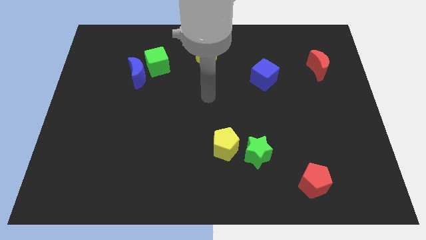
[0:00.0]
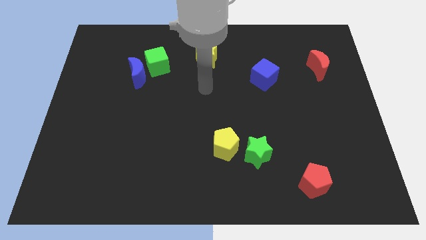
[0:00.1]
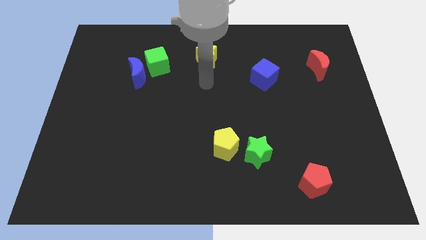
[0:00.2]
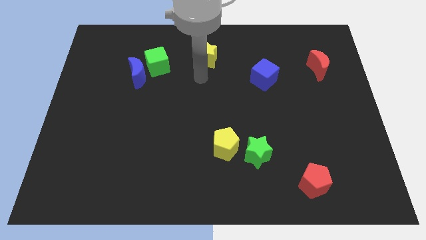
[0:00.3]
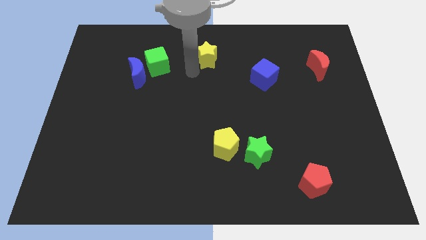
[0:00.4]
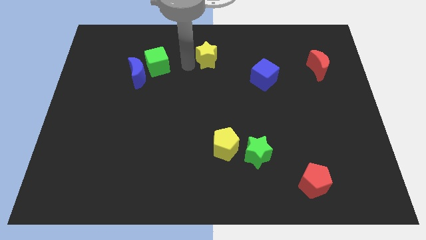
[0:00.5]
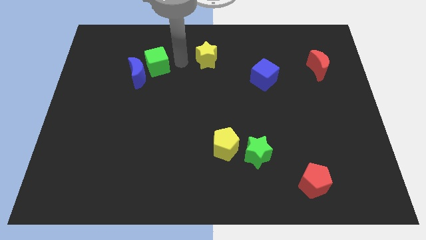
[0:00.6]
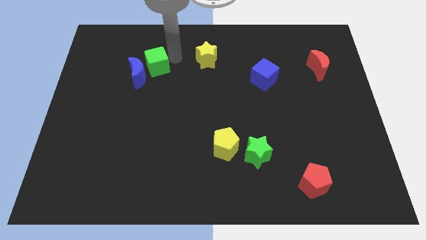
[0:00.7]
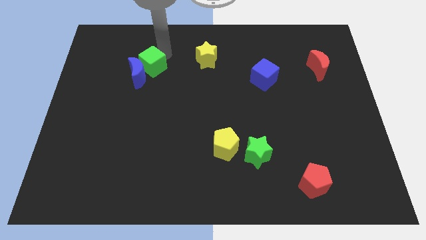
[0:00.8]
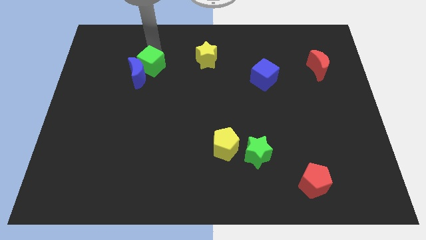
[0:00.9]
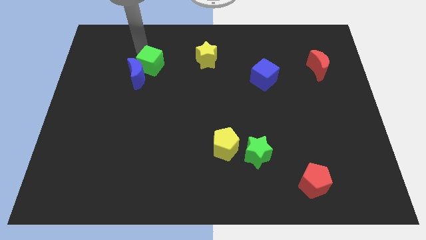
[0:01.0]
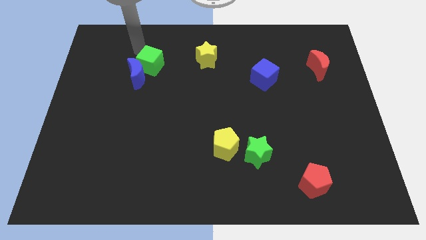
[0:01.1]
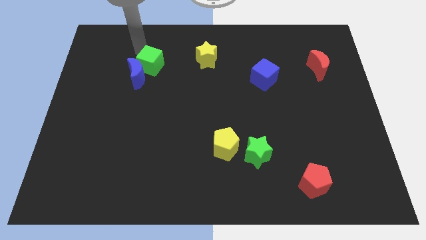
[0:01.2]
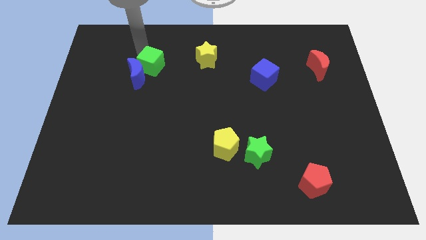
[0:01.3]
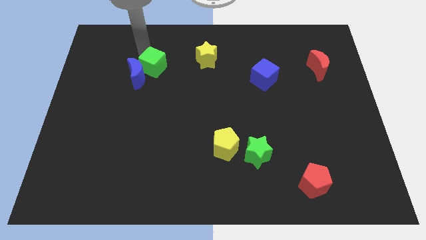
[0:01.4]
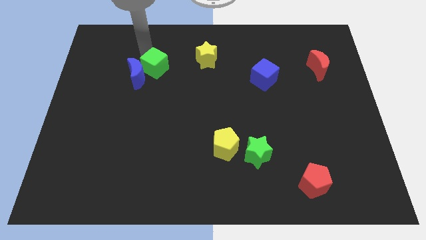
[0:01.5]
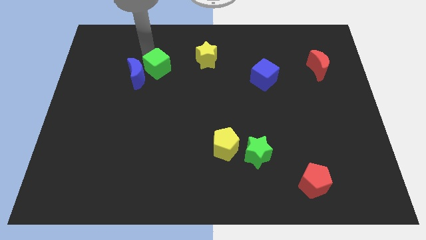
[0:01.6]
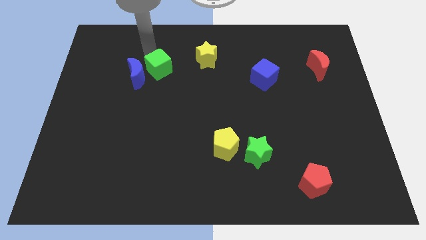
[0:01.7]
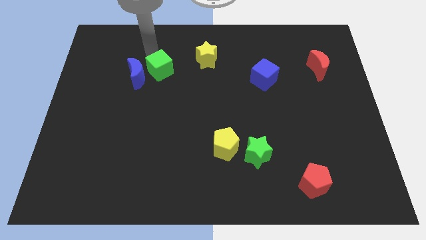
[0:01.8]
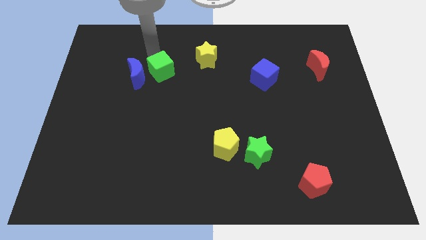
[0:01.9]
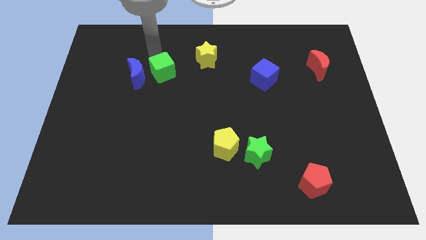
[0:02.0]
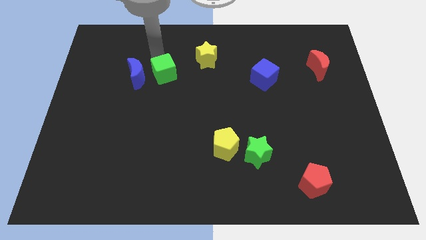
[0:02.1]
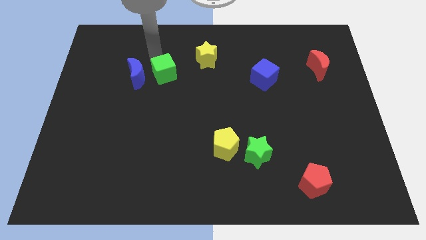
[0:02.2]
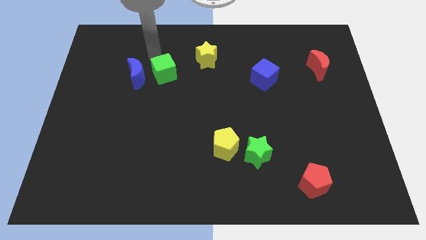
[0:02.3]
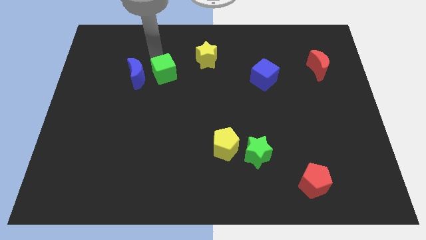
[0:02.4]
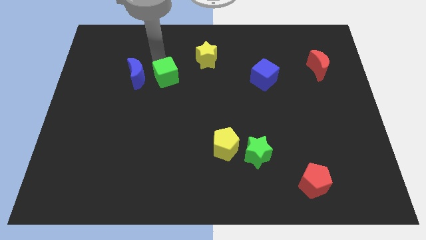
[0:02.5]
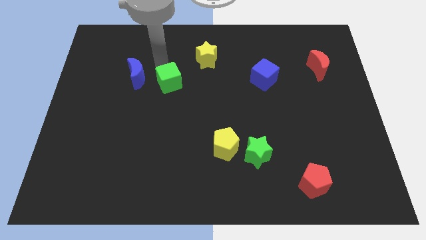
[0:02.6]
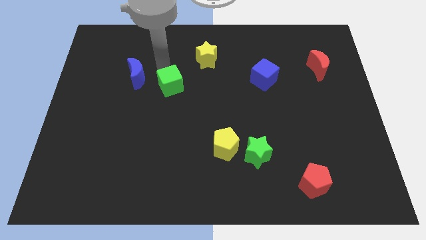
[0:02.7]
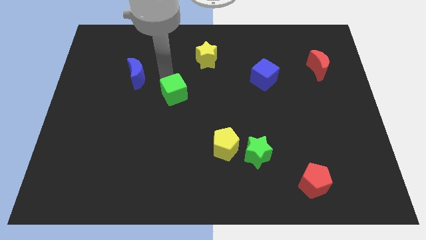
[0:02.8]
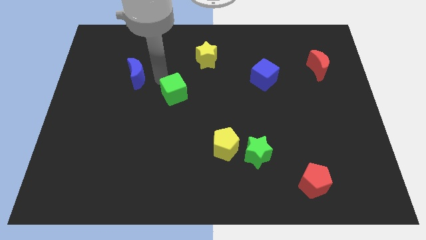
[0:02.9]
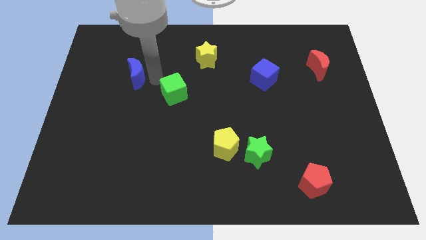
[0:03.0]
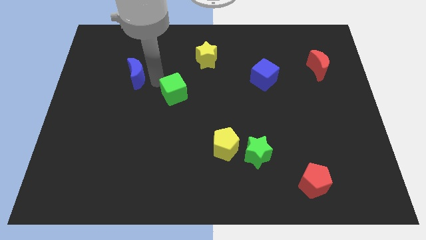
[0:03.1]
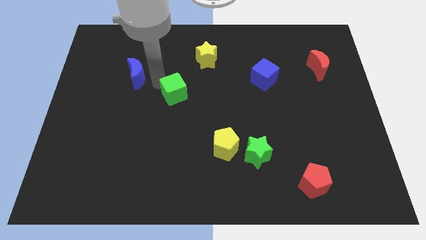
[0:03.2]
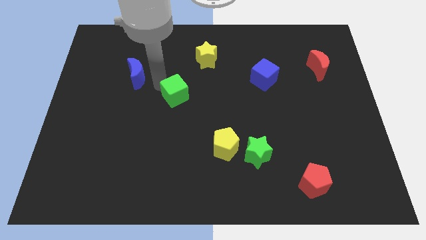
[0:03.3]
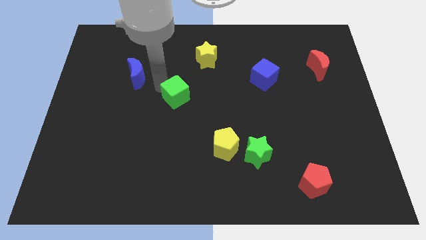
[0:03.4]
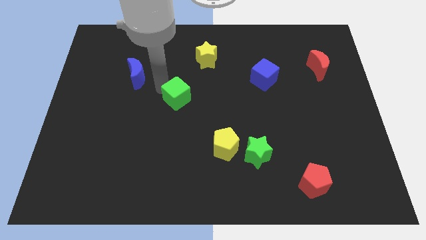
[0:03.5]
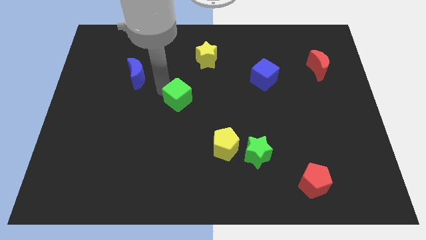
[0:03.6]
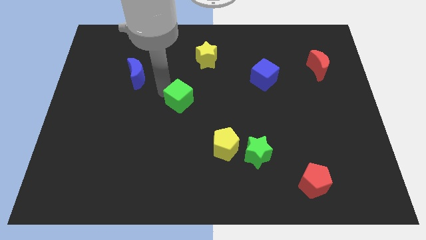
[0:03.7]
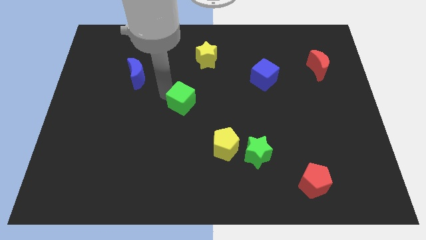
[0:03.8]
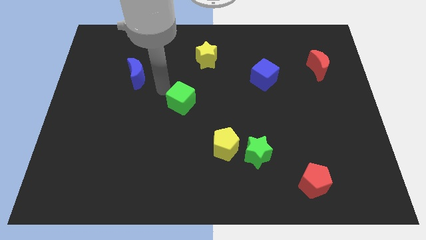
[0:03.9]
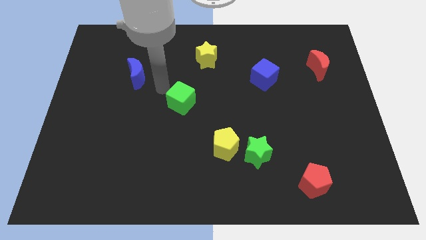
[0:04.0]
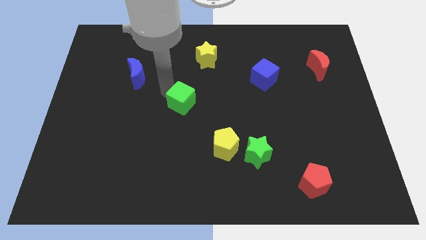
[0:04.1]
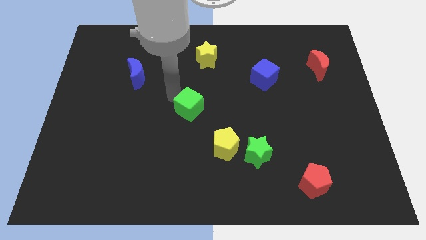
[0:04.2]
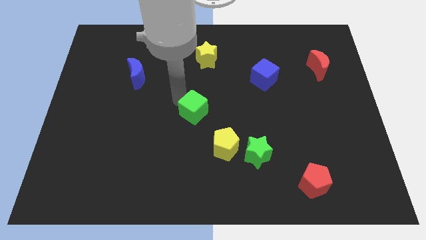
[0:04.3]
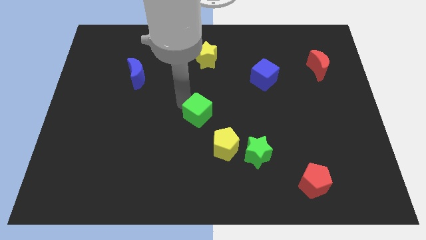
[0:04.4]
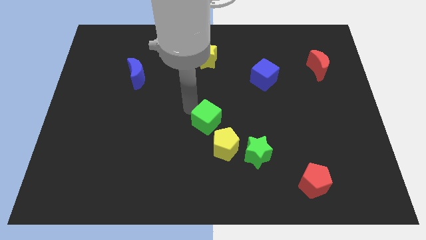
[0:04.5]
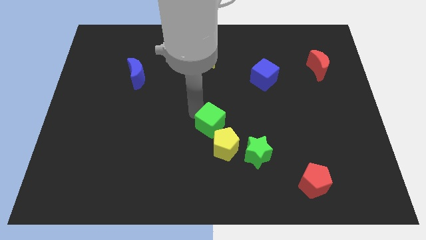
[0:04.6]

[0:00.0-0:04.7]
push the green cube to the top left of the green star

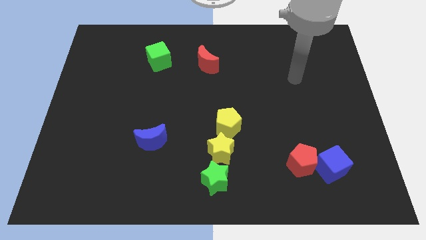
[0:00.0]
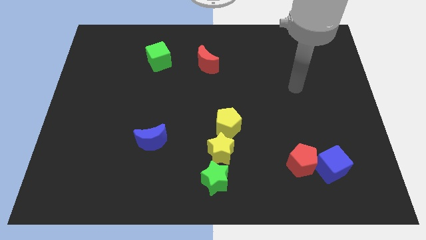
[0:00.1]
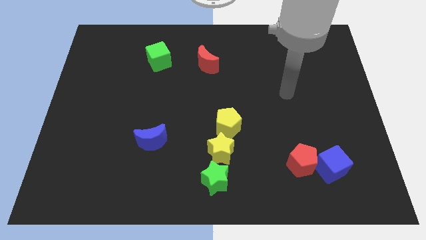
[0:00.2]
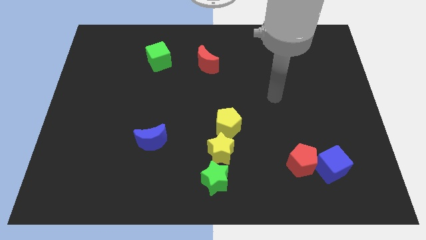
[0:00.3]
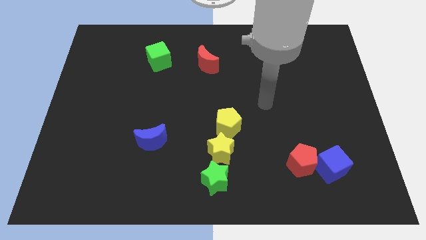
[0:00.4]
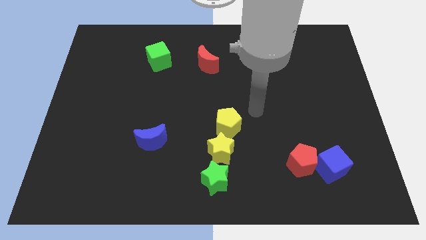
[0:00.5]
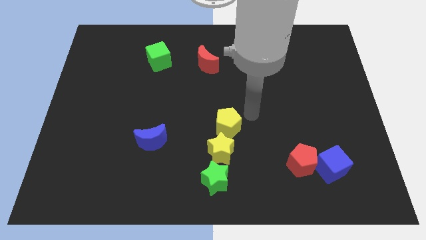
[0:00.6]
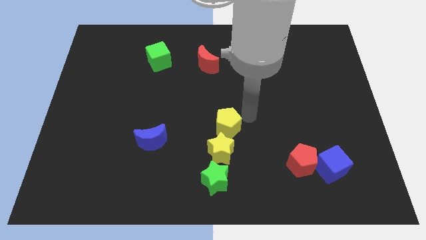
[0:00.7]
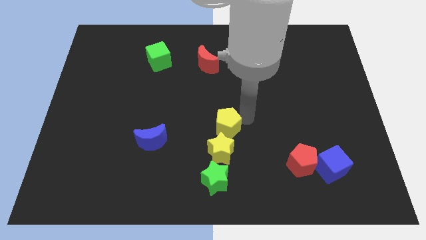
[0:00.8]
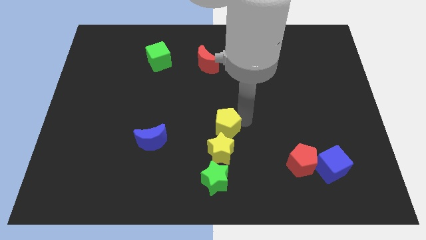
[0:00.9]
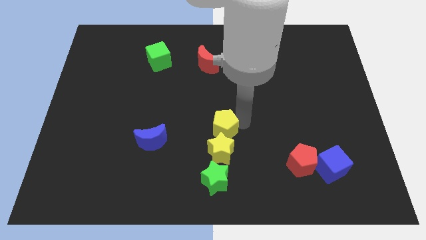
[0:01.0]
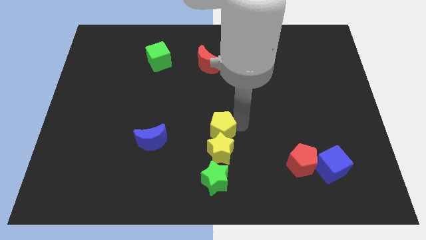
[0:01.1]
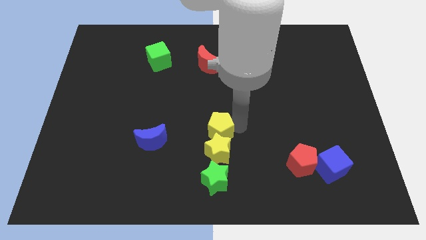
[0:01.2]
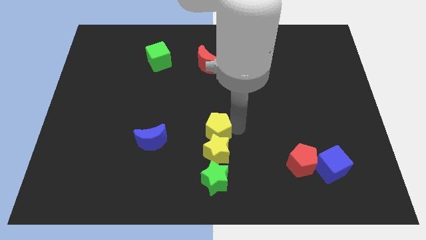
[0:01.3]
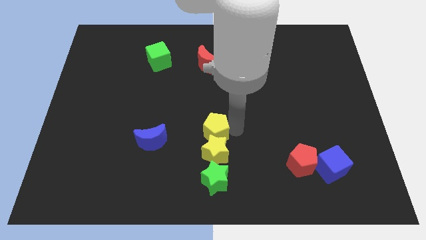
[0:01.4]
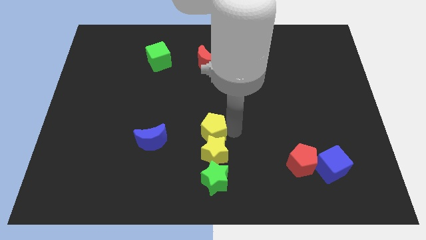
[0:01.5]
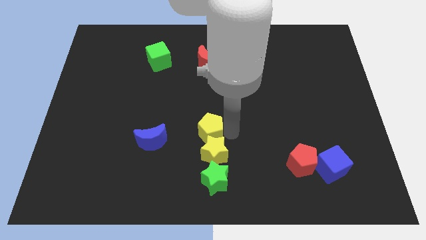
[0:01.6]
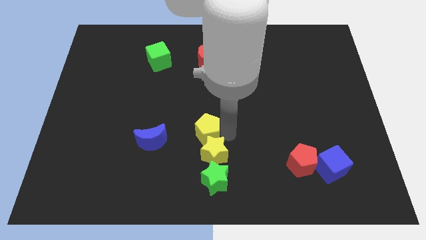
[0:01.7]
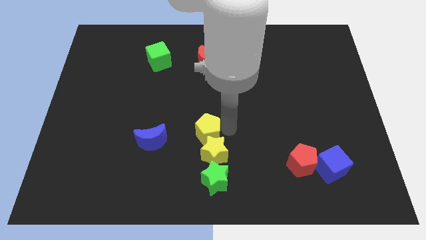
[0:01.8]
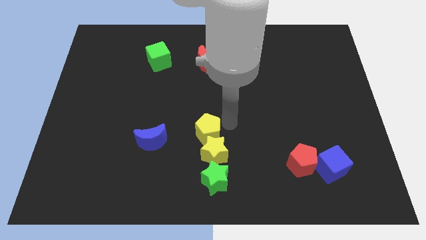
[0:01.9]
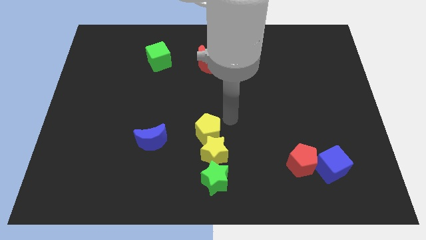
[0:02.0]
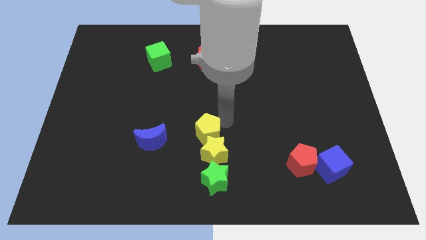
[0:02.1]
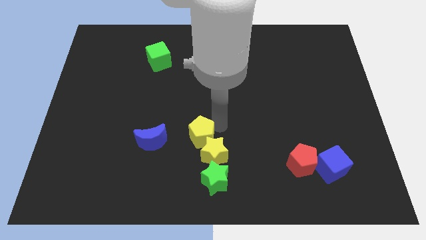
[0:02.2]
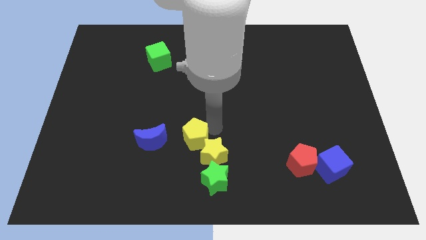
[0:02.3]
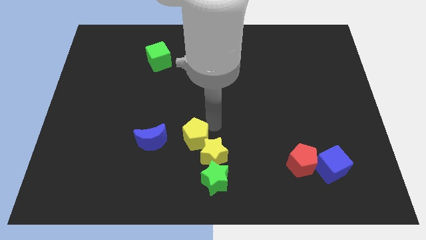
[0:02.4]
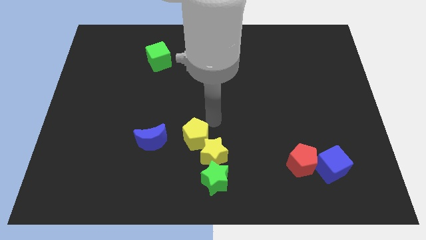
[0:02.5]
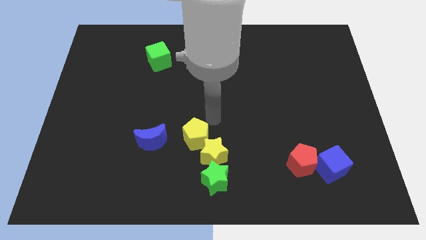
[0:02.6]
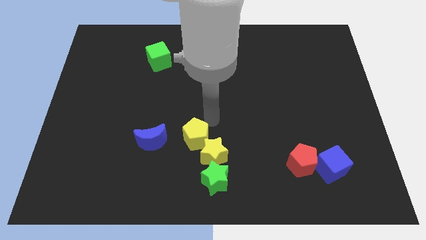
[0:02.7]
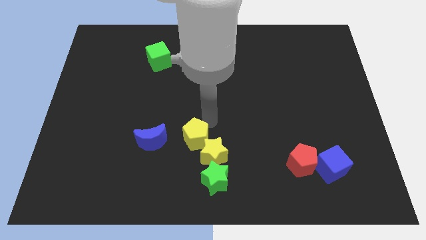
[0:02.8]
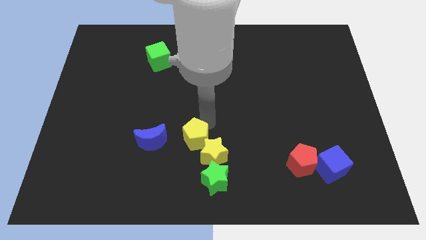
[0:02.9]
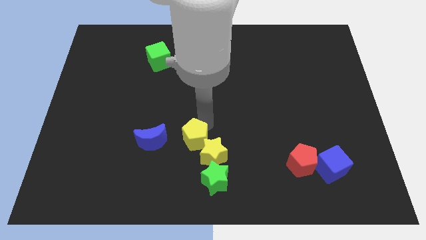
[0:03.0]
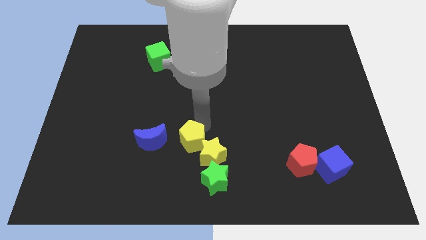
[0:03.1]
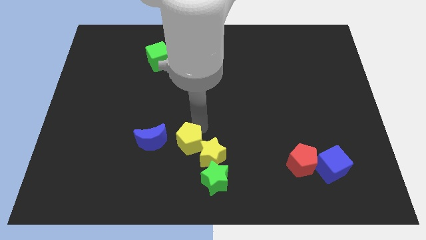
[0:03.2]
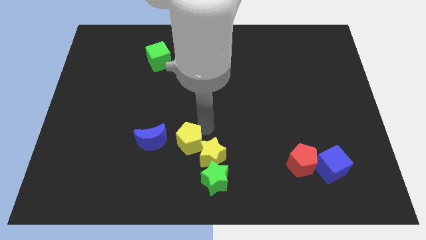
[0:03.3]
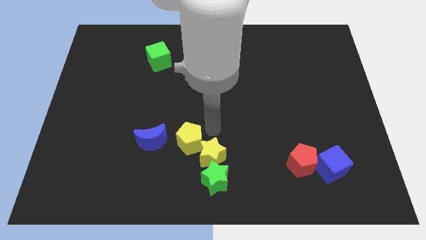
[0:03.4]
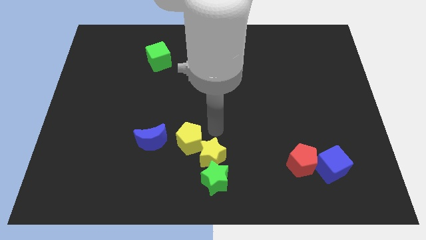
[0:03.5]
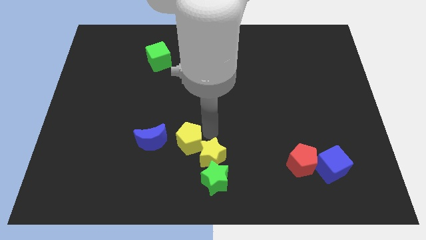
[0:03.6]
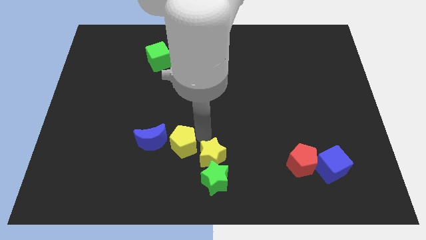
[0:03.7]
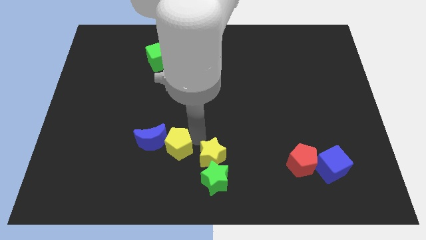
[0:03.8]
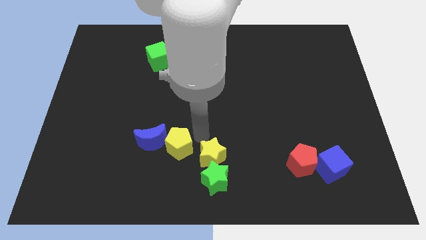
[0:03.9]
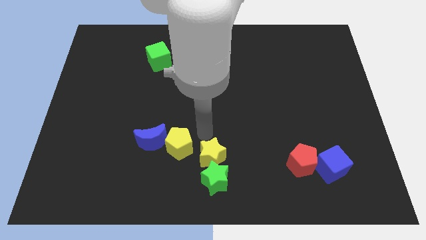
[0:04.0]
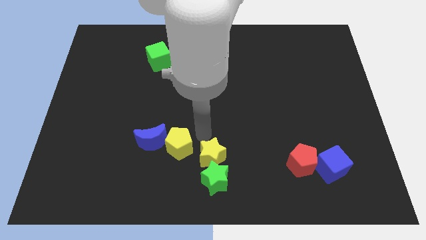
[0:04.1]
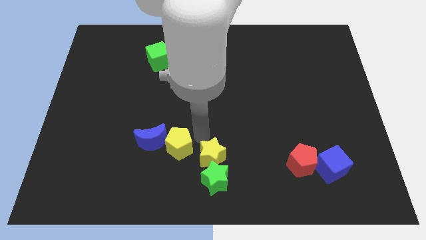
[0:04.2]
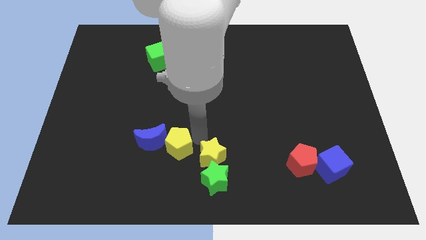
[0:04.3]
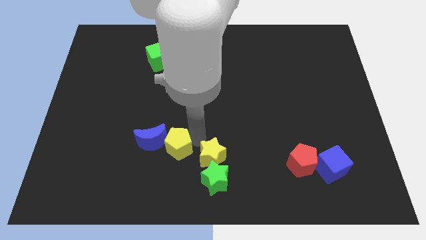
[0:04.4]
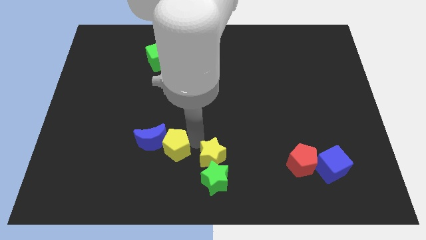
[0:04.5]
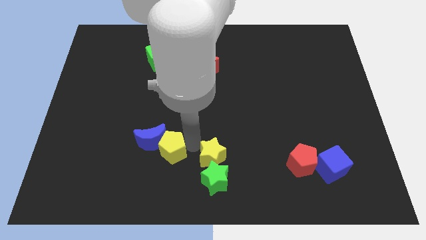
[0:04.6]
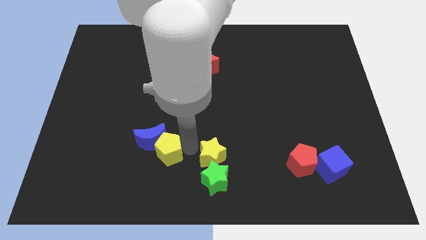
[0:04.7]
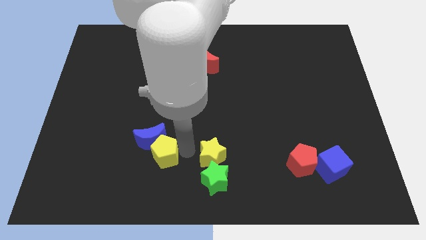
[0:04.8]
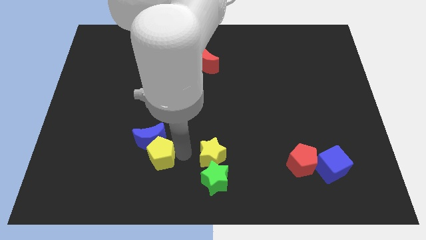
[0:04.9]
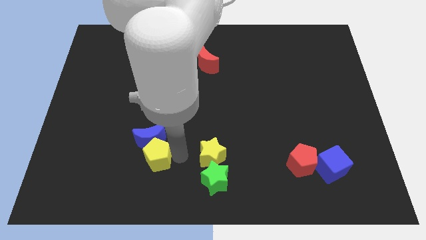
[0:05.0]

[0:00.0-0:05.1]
slide the yellow pentagon to the bottom left of the blue moon
